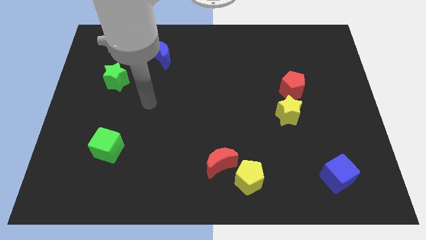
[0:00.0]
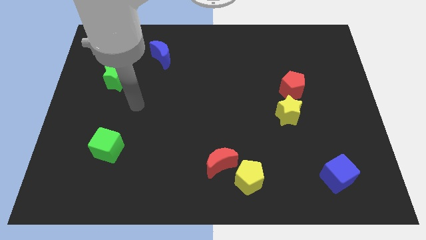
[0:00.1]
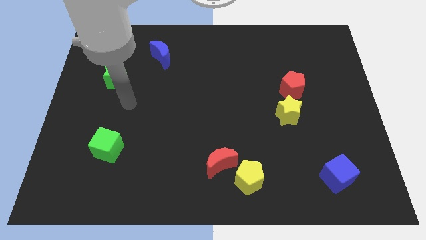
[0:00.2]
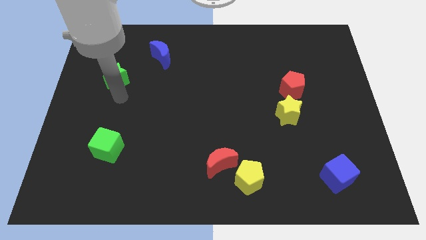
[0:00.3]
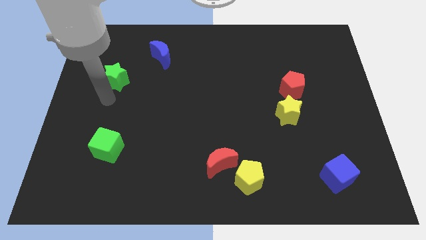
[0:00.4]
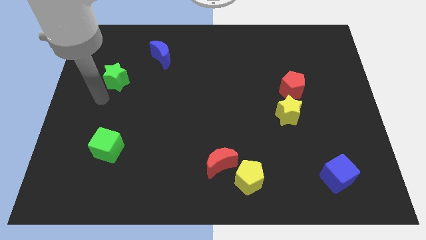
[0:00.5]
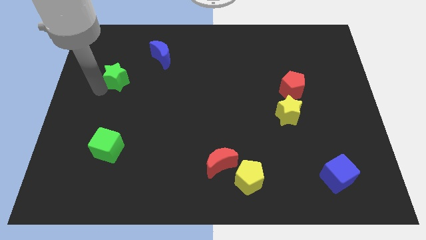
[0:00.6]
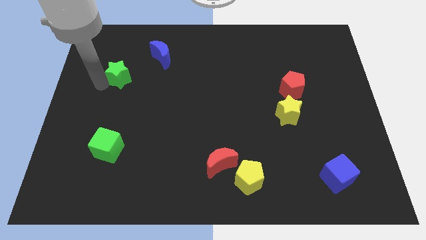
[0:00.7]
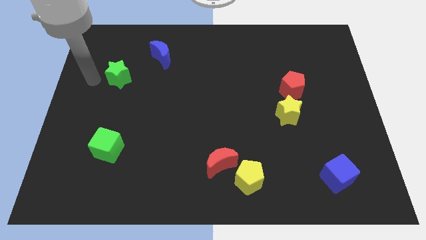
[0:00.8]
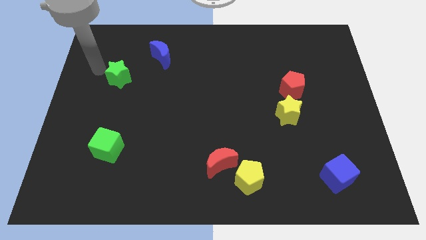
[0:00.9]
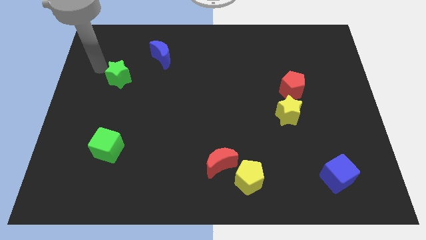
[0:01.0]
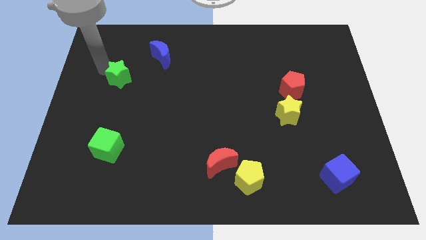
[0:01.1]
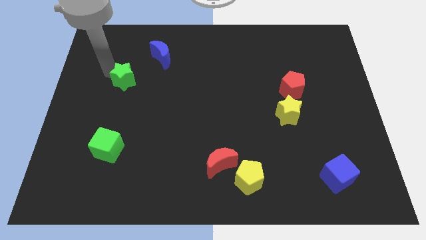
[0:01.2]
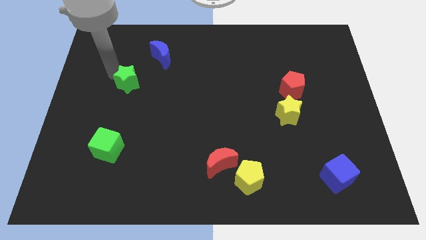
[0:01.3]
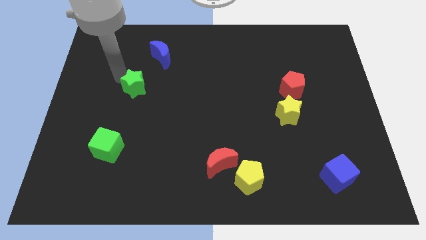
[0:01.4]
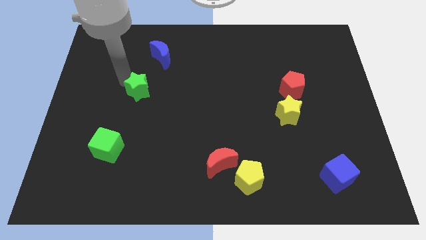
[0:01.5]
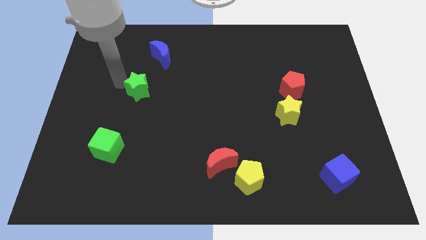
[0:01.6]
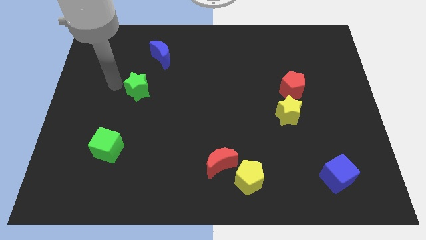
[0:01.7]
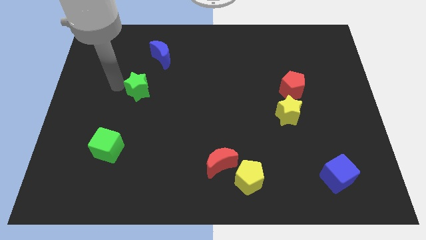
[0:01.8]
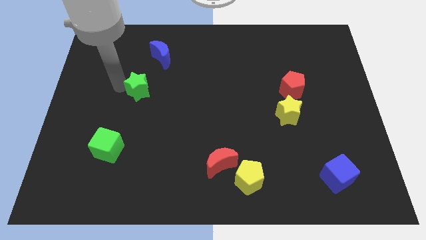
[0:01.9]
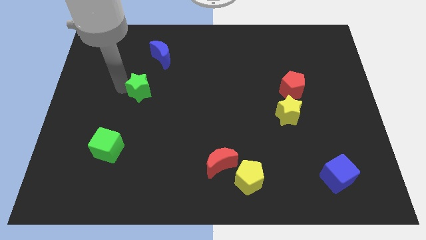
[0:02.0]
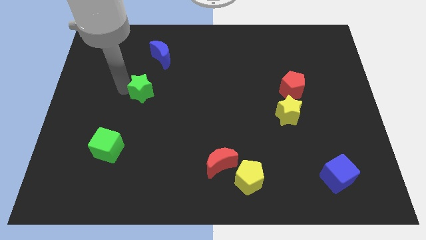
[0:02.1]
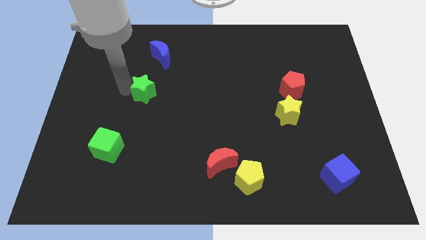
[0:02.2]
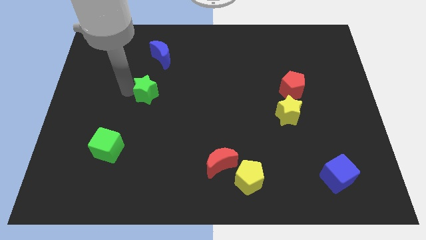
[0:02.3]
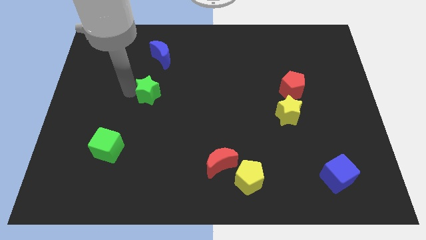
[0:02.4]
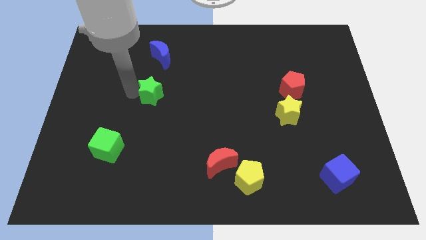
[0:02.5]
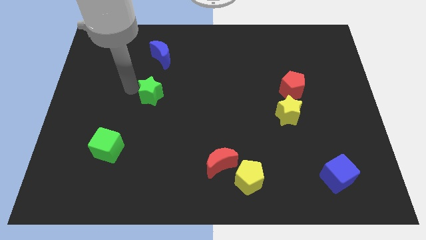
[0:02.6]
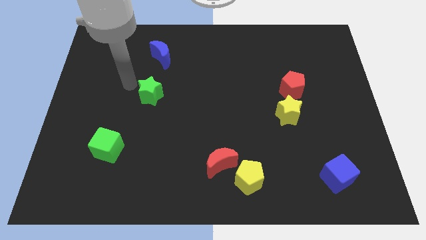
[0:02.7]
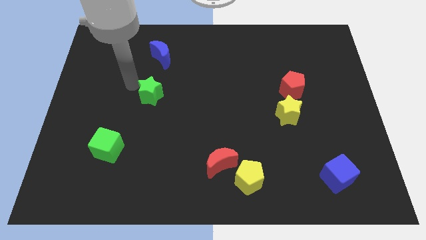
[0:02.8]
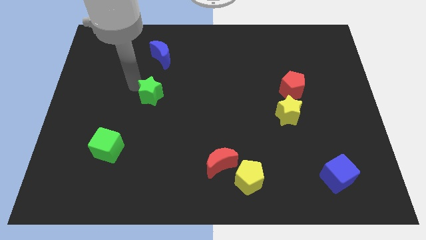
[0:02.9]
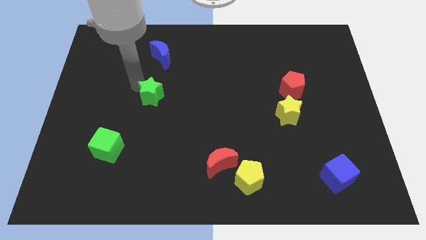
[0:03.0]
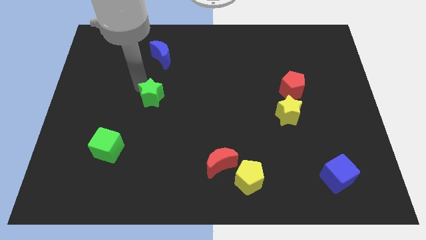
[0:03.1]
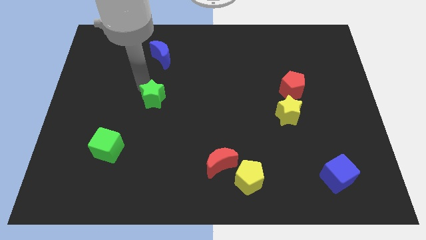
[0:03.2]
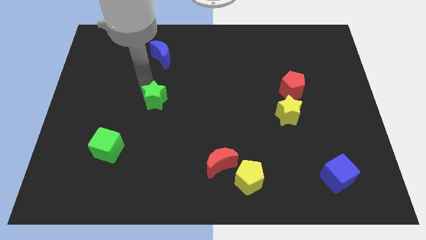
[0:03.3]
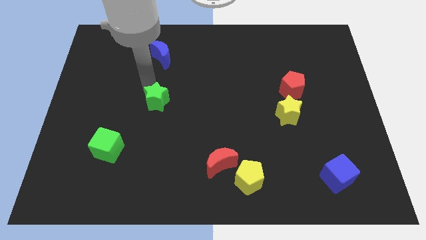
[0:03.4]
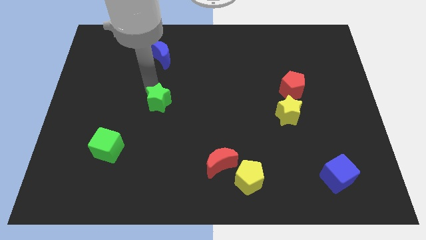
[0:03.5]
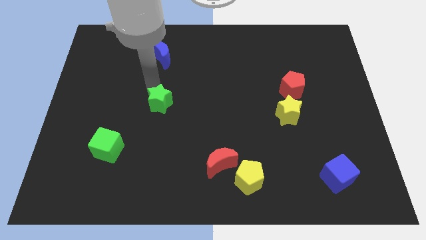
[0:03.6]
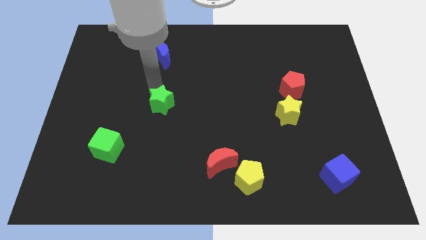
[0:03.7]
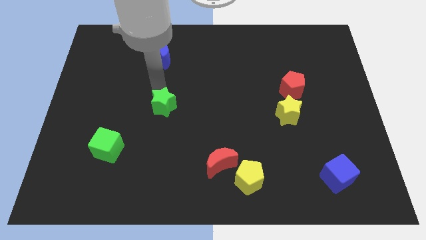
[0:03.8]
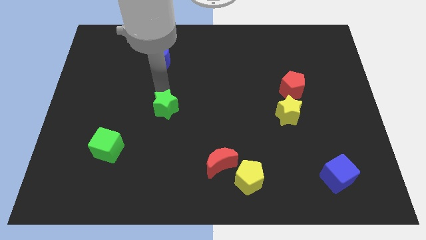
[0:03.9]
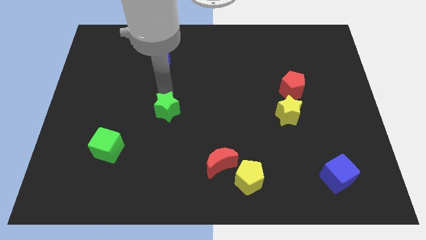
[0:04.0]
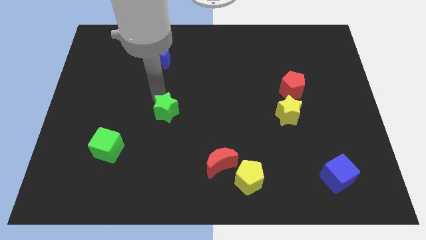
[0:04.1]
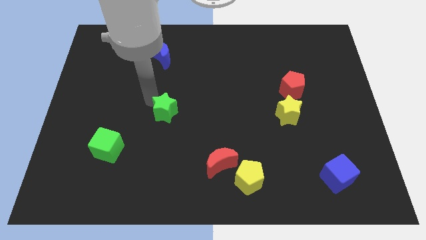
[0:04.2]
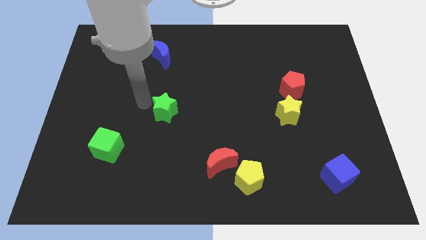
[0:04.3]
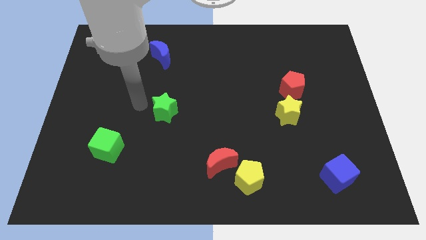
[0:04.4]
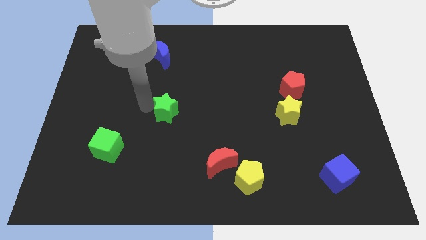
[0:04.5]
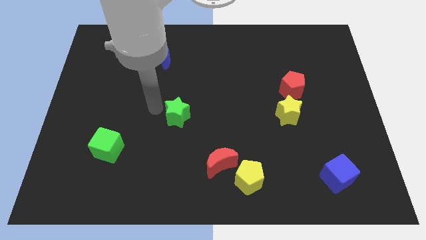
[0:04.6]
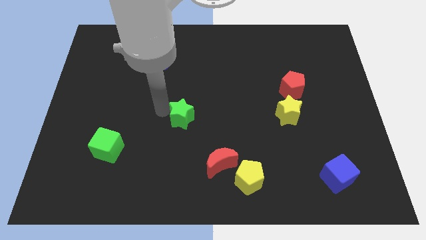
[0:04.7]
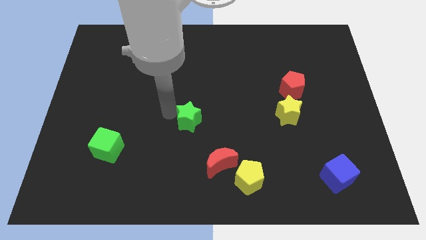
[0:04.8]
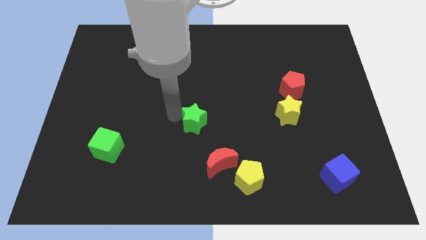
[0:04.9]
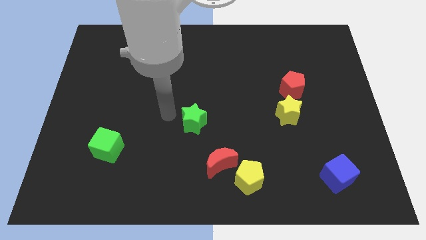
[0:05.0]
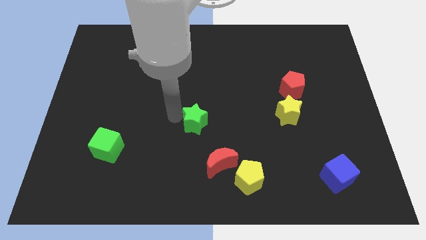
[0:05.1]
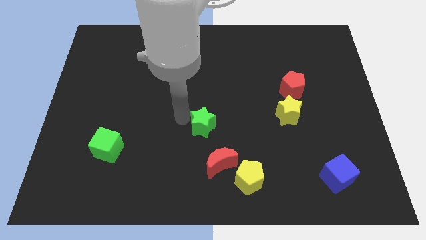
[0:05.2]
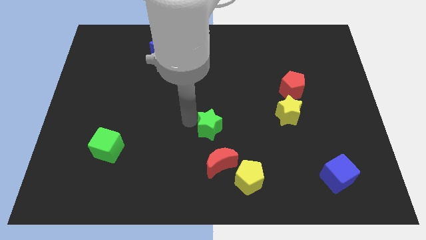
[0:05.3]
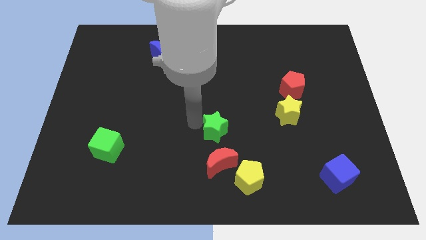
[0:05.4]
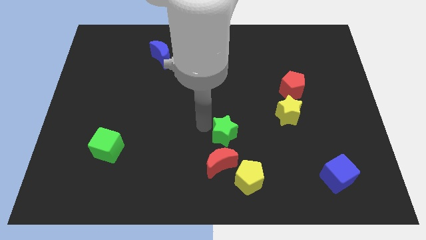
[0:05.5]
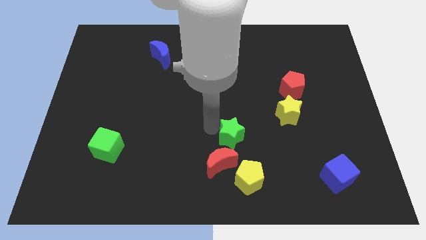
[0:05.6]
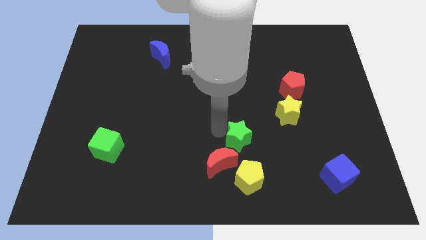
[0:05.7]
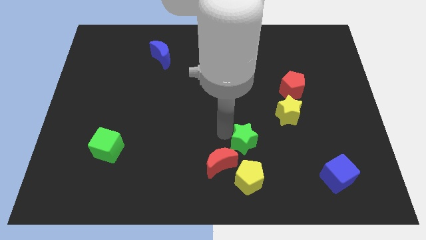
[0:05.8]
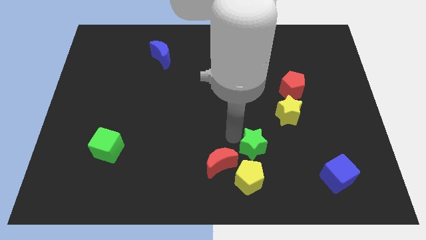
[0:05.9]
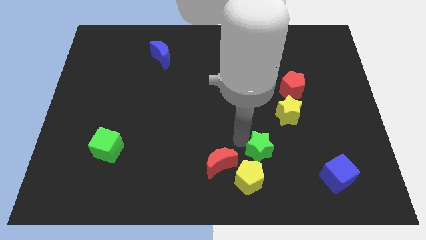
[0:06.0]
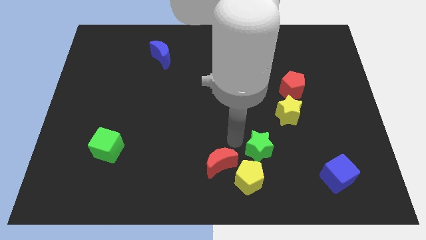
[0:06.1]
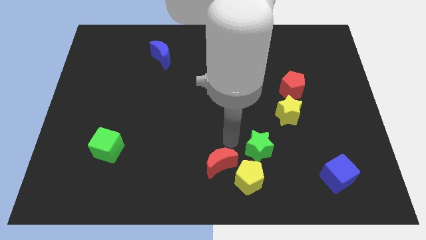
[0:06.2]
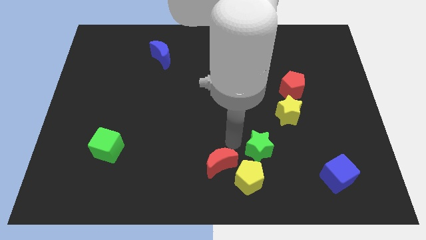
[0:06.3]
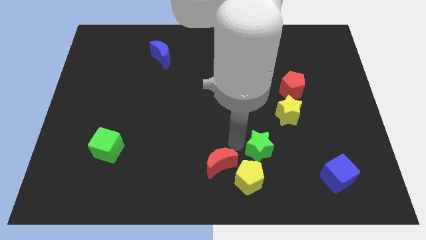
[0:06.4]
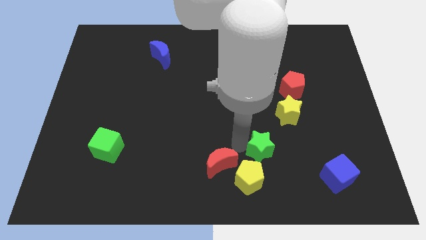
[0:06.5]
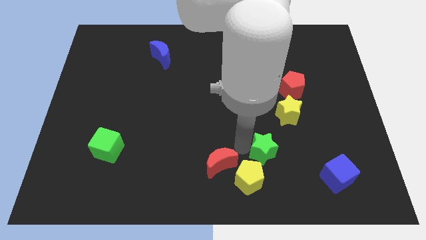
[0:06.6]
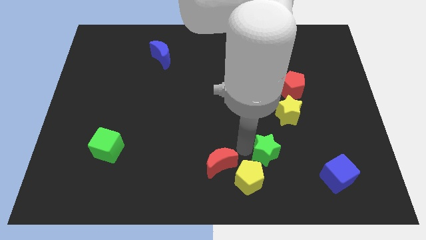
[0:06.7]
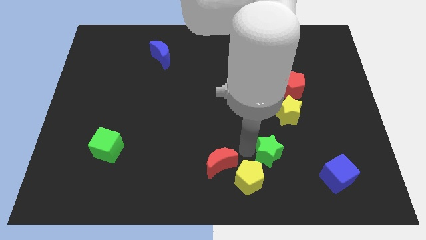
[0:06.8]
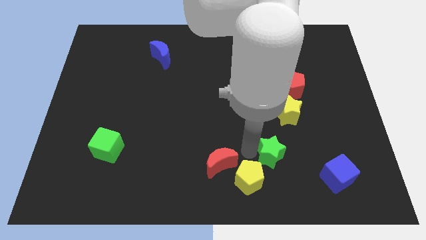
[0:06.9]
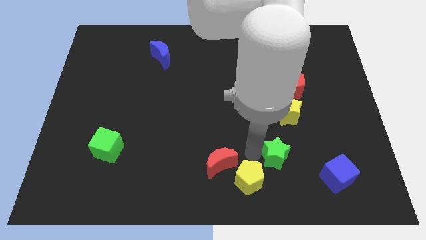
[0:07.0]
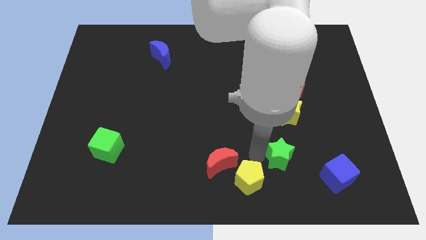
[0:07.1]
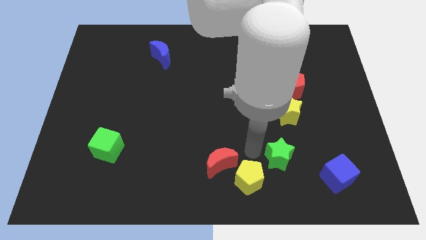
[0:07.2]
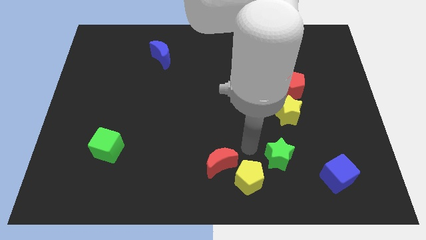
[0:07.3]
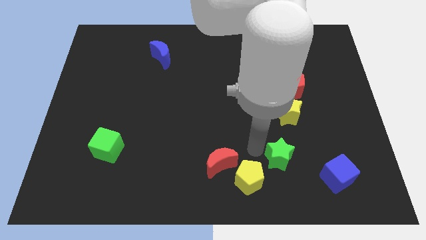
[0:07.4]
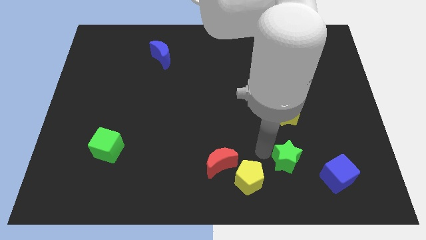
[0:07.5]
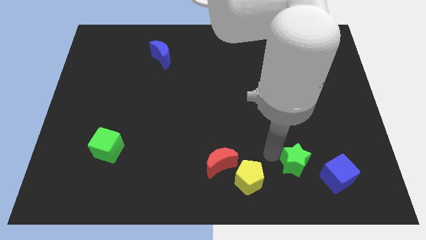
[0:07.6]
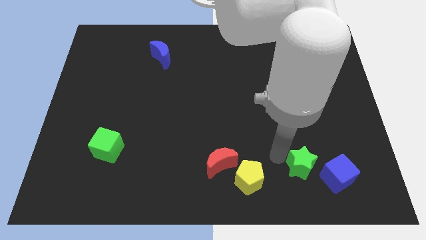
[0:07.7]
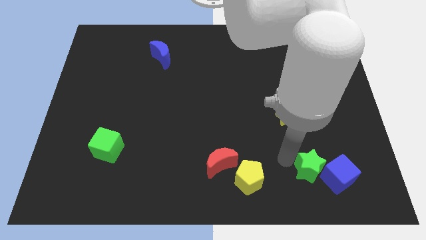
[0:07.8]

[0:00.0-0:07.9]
put the green star towards the blue cube

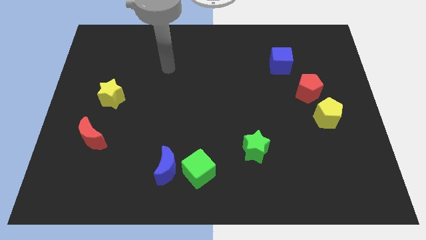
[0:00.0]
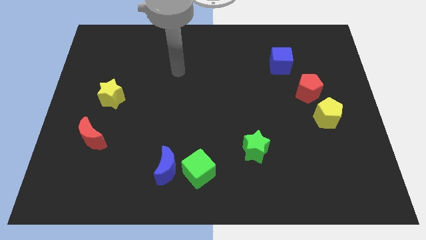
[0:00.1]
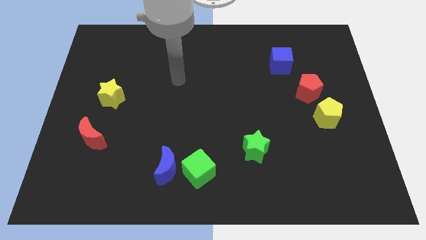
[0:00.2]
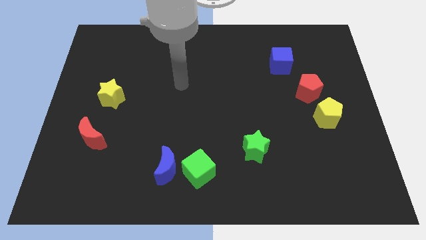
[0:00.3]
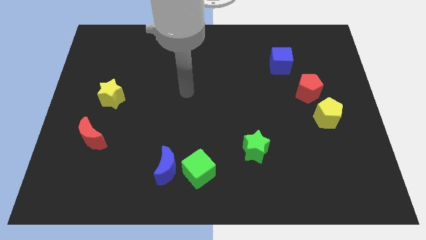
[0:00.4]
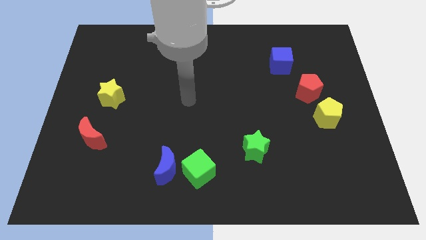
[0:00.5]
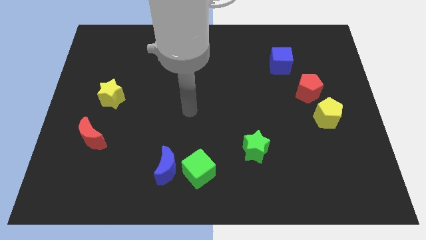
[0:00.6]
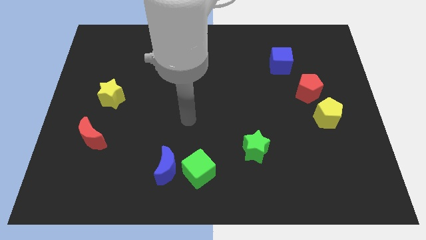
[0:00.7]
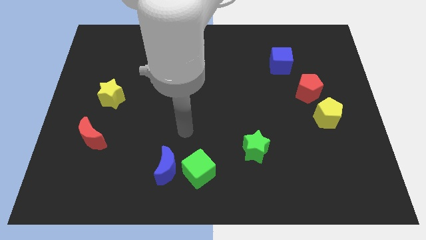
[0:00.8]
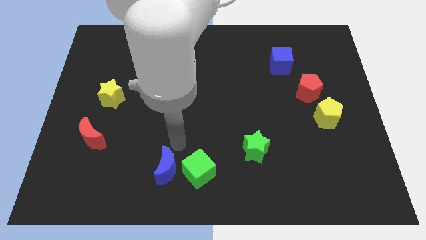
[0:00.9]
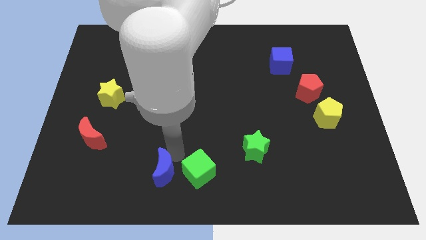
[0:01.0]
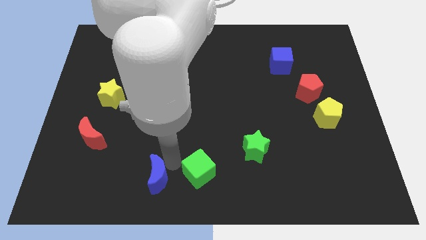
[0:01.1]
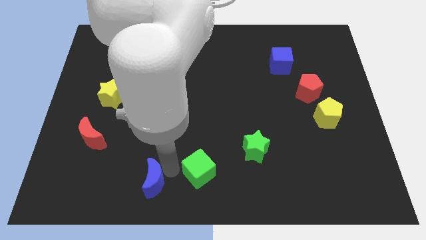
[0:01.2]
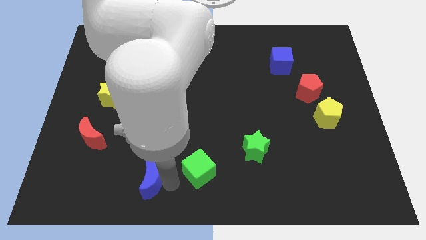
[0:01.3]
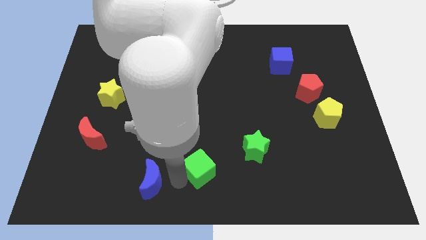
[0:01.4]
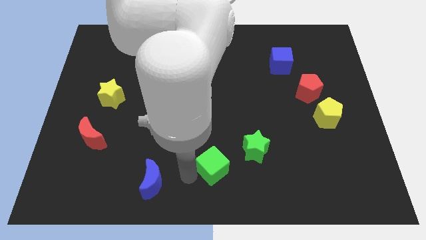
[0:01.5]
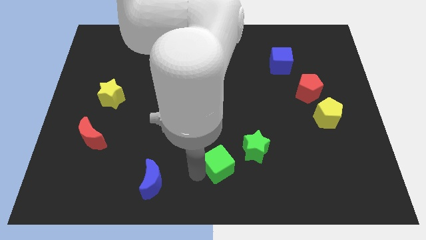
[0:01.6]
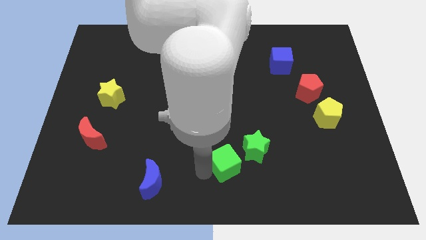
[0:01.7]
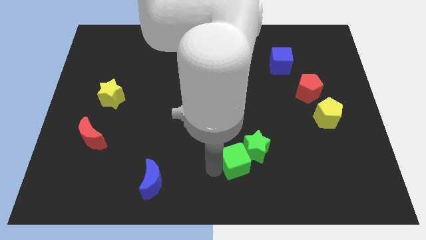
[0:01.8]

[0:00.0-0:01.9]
move the green cube next to the green star
